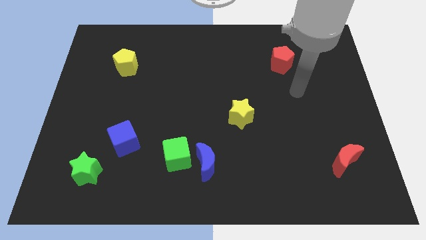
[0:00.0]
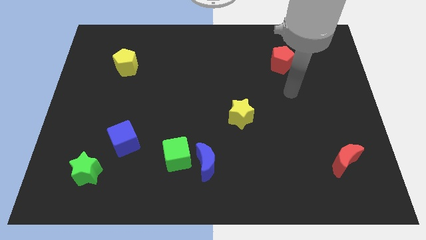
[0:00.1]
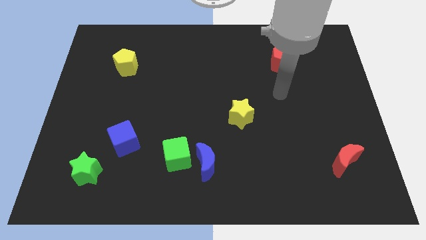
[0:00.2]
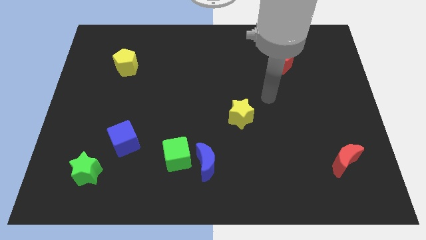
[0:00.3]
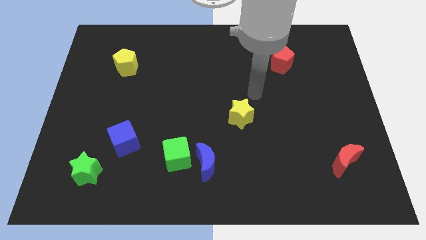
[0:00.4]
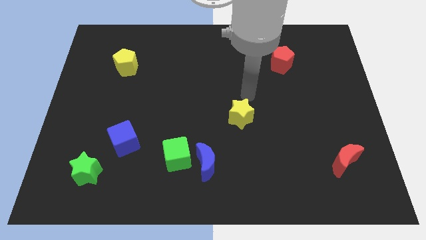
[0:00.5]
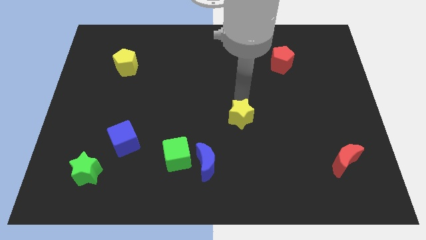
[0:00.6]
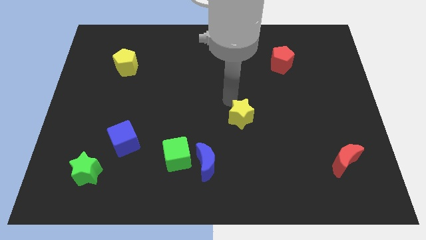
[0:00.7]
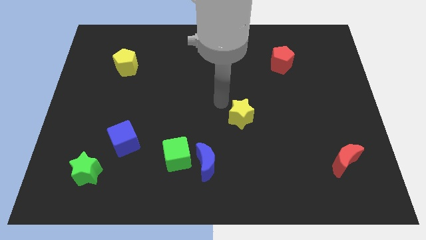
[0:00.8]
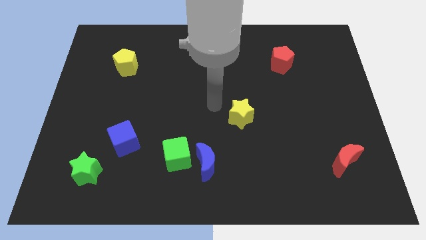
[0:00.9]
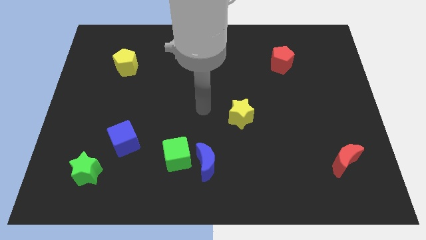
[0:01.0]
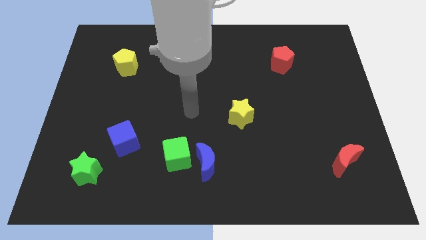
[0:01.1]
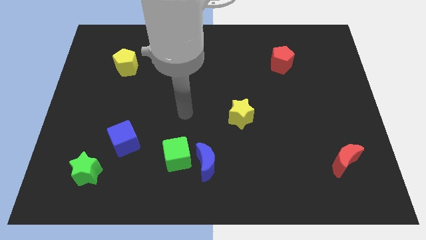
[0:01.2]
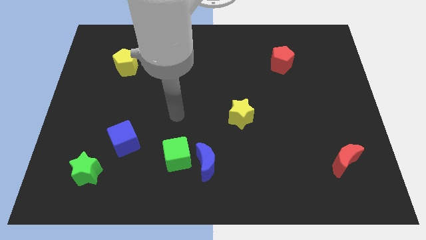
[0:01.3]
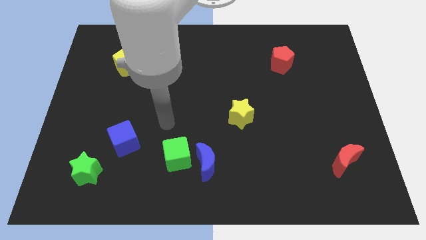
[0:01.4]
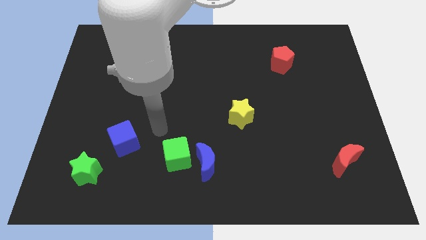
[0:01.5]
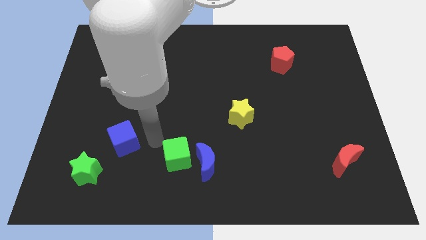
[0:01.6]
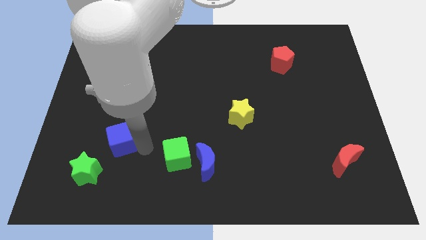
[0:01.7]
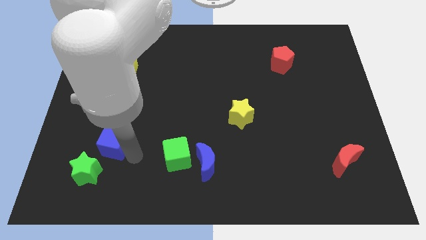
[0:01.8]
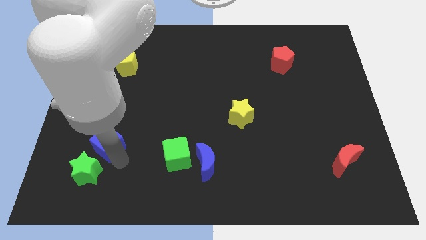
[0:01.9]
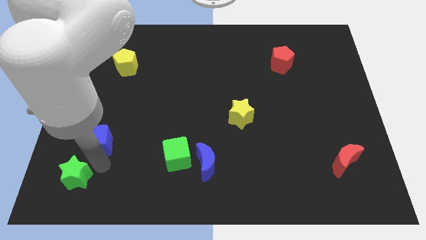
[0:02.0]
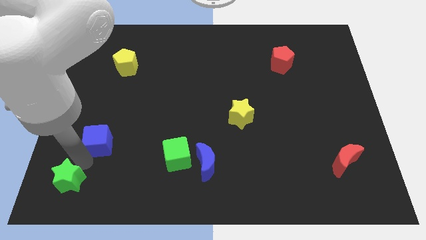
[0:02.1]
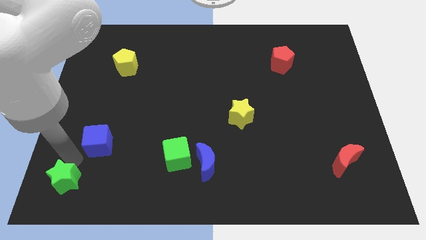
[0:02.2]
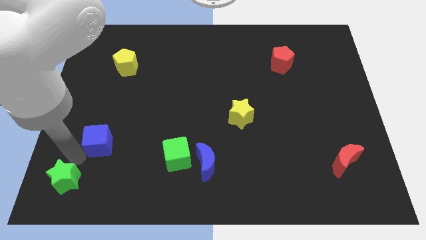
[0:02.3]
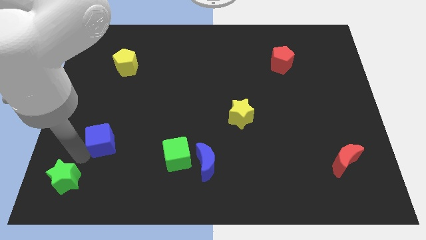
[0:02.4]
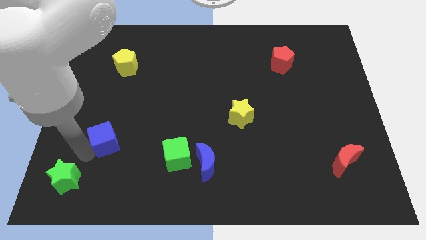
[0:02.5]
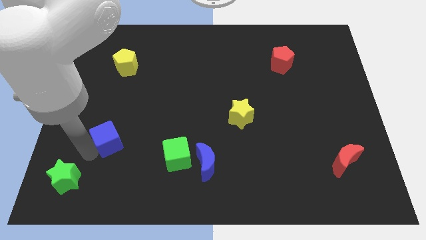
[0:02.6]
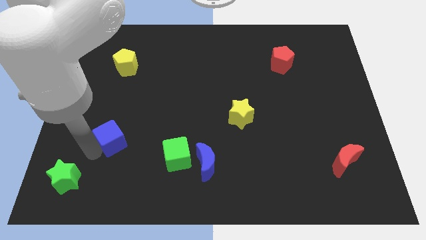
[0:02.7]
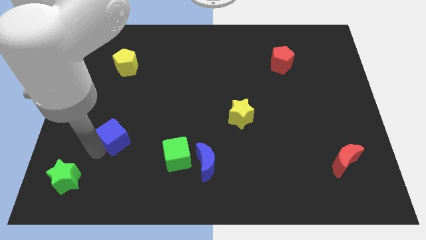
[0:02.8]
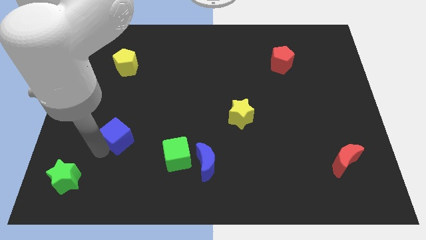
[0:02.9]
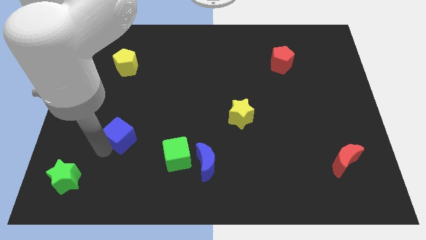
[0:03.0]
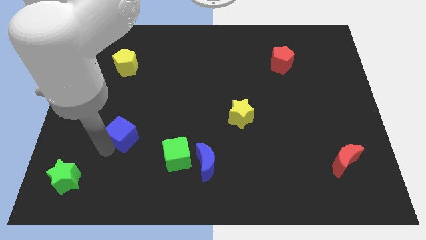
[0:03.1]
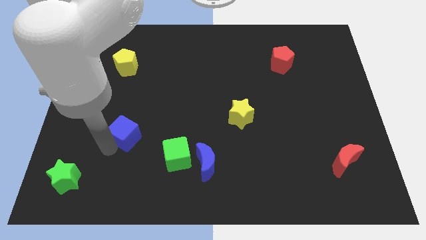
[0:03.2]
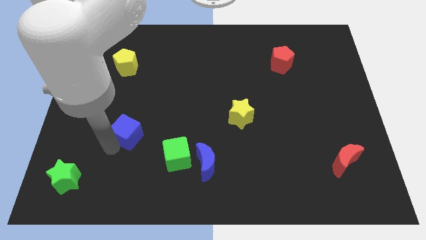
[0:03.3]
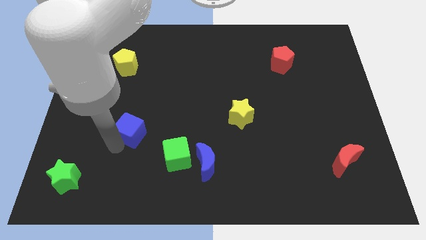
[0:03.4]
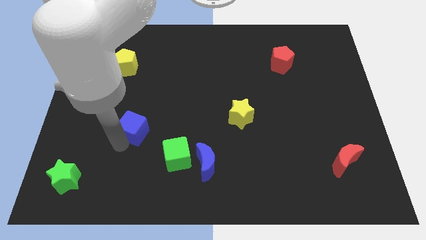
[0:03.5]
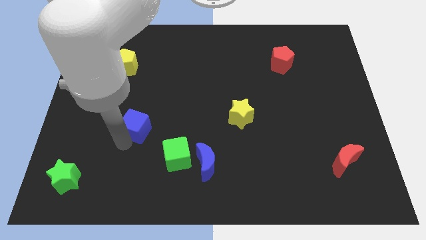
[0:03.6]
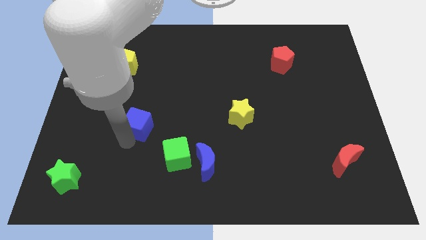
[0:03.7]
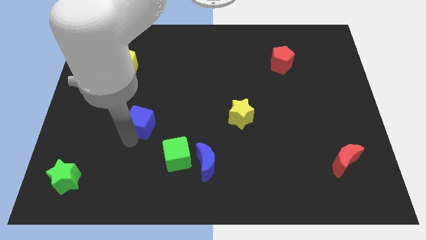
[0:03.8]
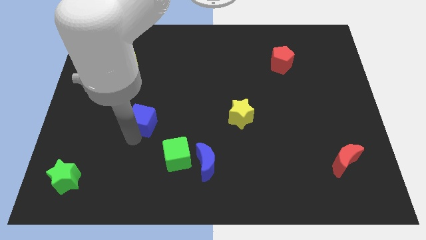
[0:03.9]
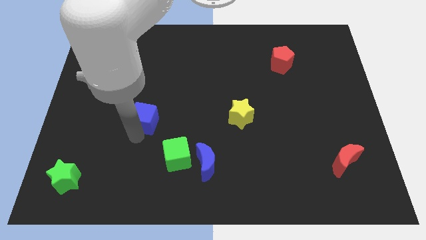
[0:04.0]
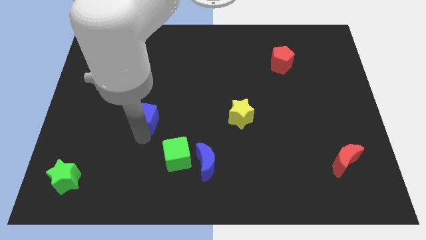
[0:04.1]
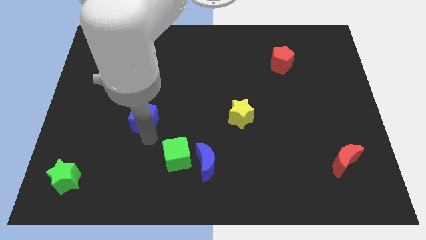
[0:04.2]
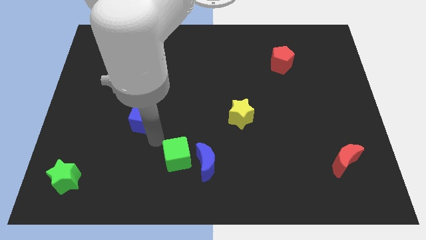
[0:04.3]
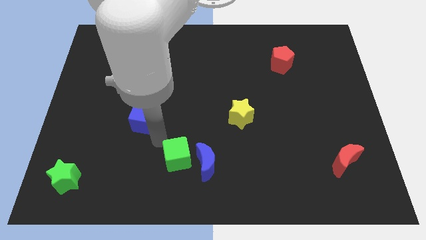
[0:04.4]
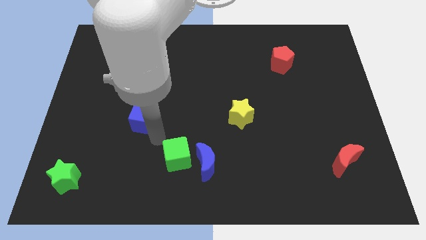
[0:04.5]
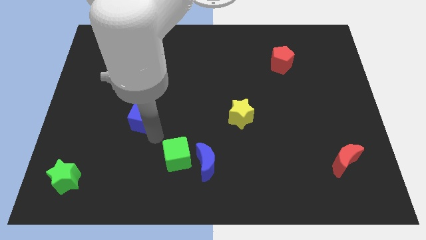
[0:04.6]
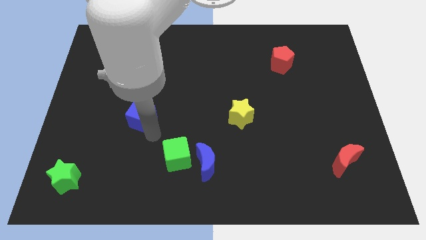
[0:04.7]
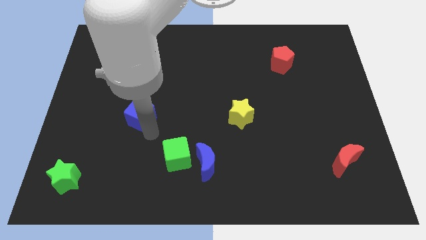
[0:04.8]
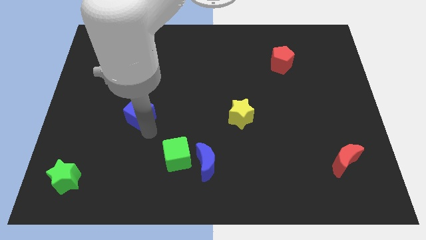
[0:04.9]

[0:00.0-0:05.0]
slightly slide the blue cube up

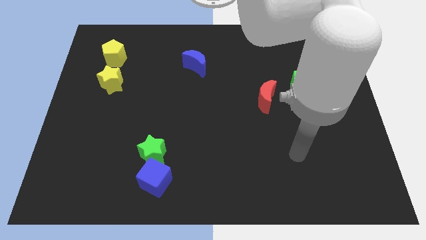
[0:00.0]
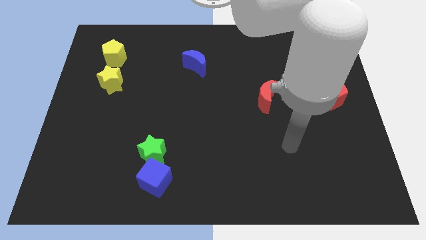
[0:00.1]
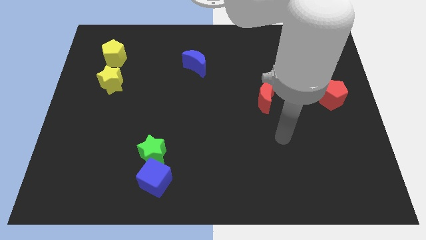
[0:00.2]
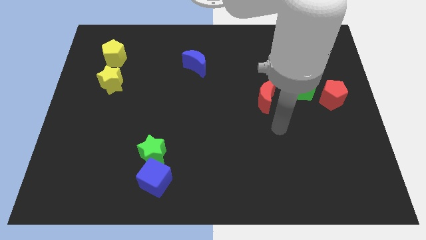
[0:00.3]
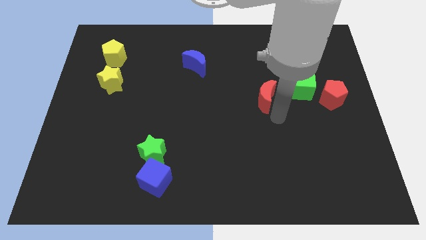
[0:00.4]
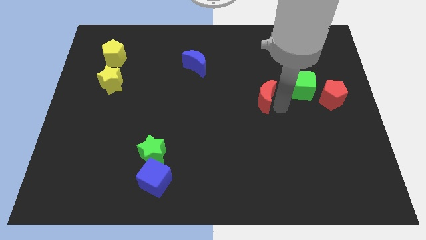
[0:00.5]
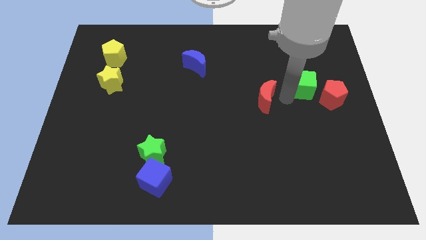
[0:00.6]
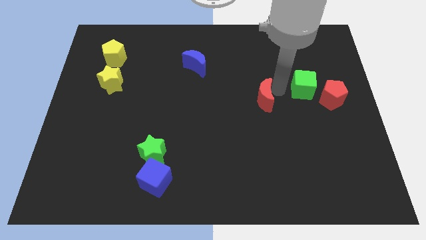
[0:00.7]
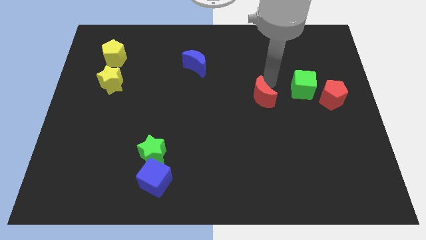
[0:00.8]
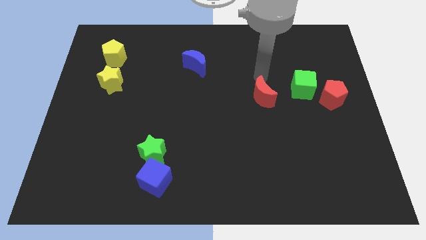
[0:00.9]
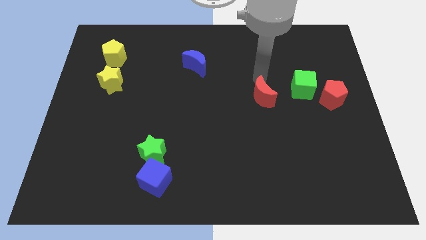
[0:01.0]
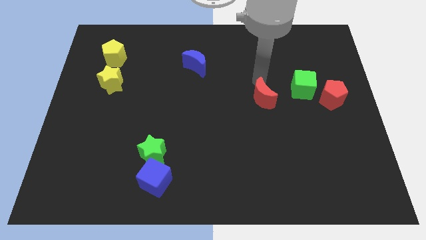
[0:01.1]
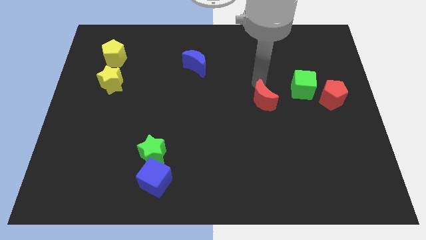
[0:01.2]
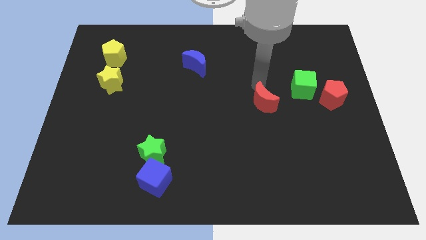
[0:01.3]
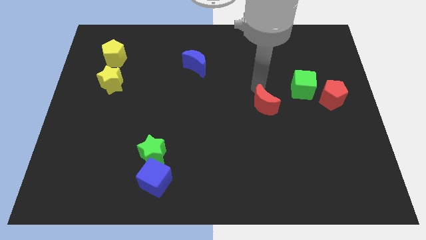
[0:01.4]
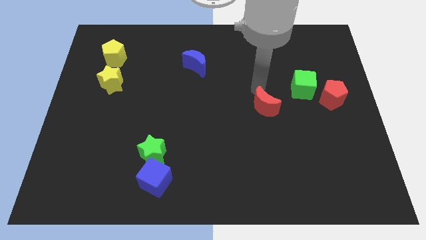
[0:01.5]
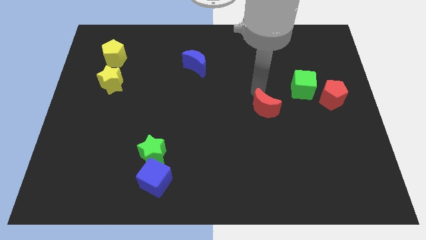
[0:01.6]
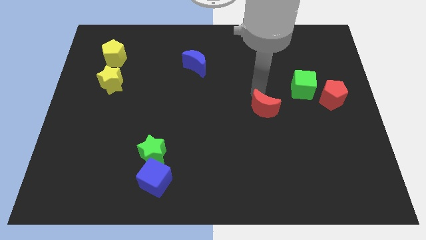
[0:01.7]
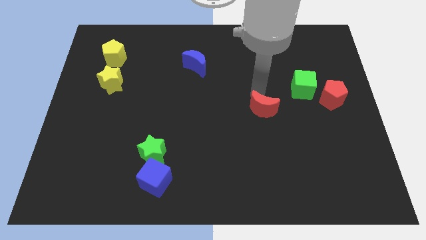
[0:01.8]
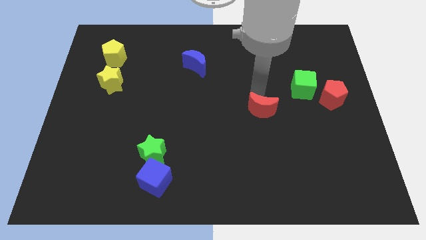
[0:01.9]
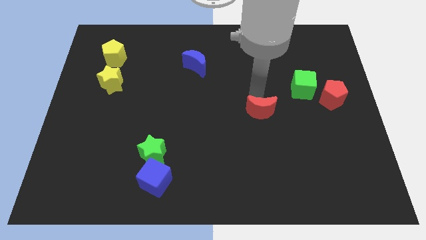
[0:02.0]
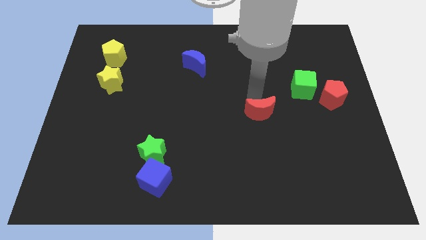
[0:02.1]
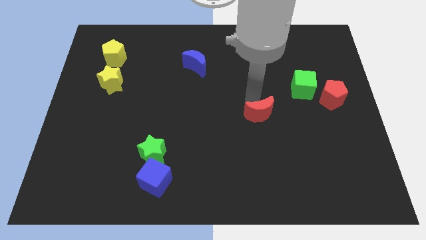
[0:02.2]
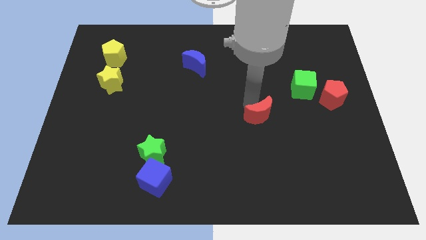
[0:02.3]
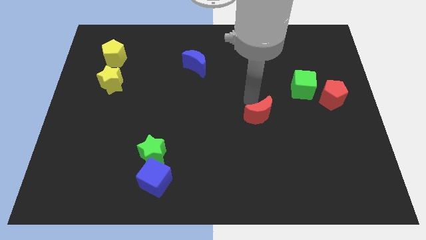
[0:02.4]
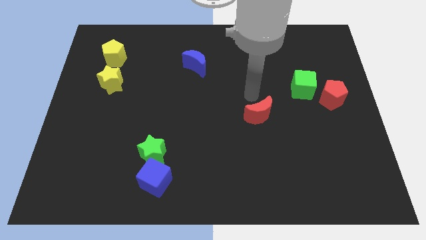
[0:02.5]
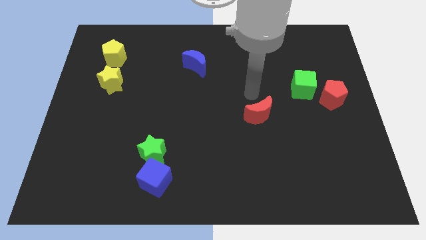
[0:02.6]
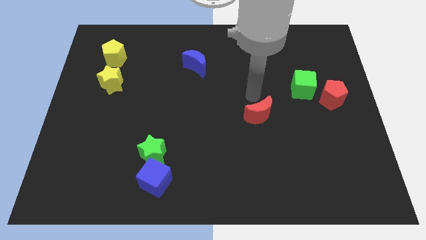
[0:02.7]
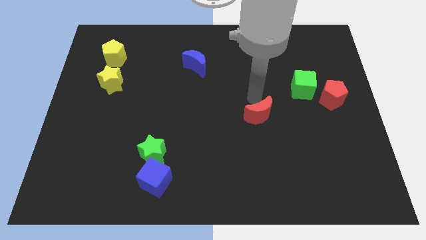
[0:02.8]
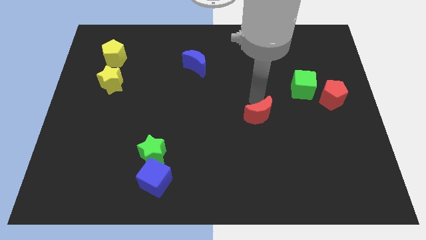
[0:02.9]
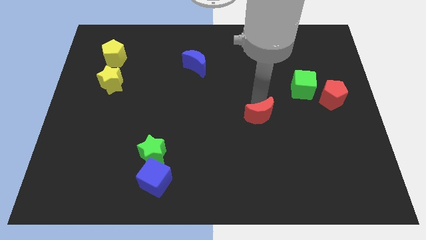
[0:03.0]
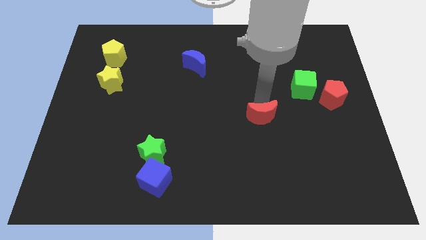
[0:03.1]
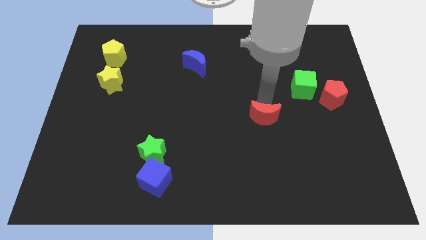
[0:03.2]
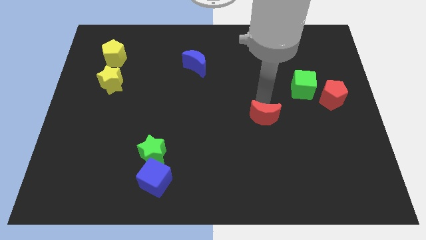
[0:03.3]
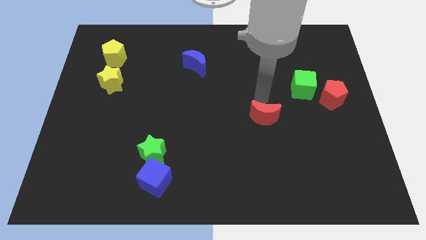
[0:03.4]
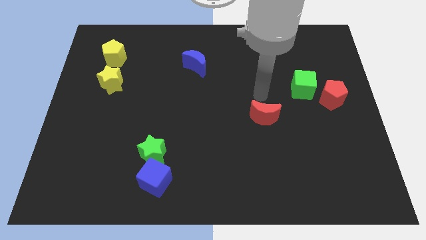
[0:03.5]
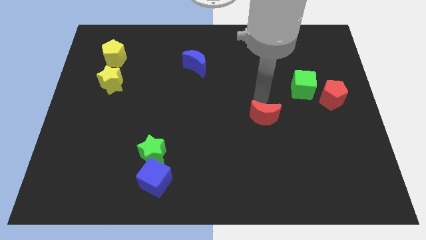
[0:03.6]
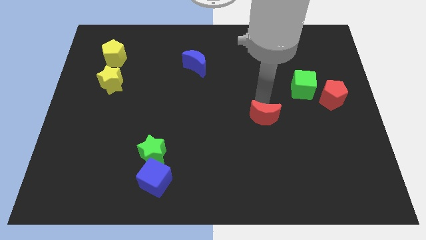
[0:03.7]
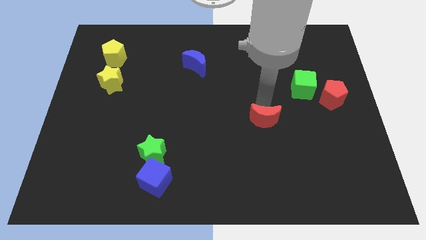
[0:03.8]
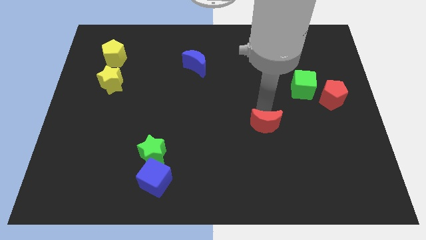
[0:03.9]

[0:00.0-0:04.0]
slightly slide the red moon downwards
